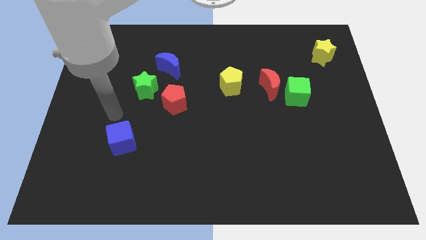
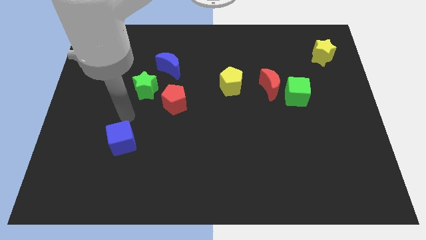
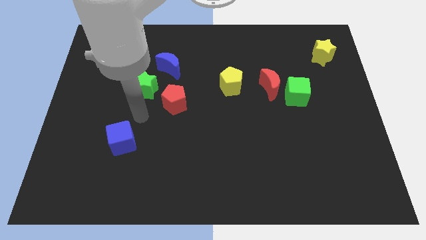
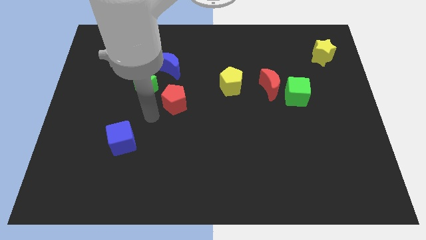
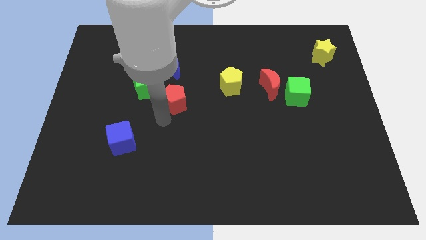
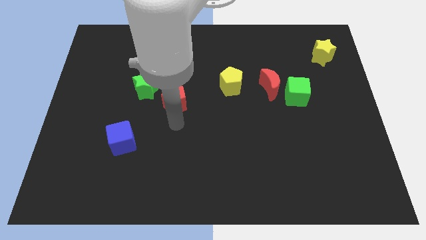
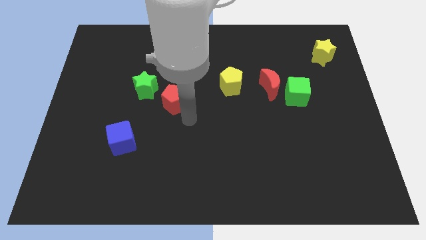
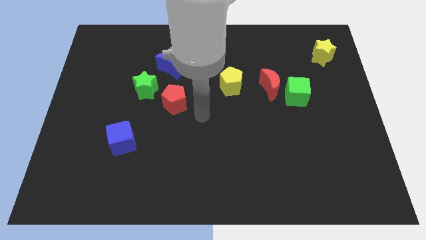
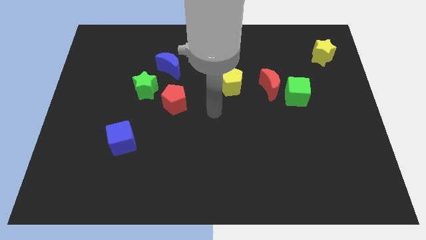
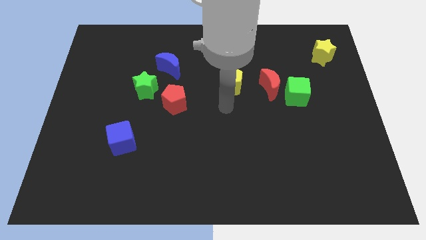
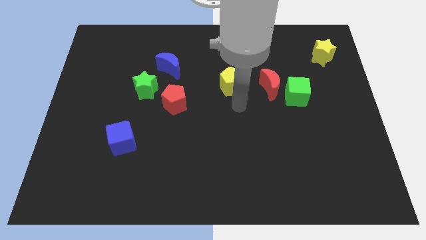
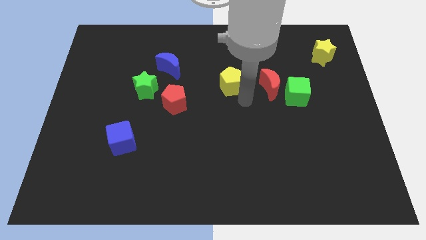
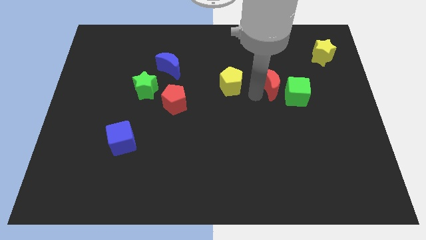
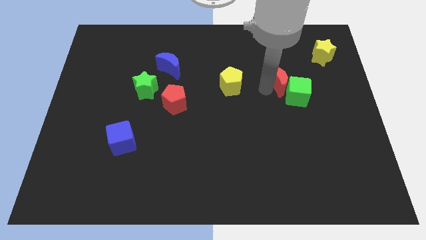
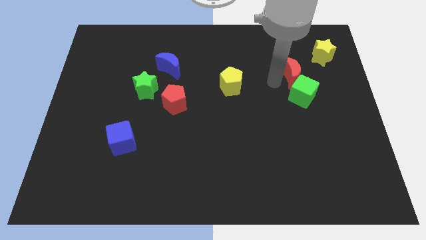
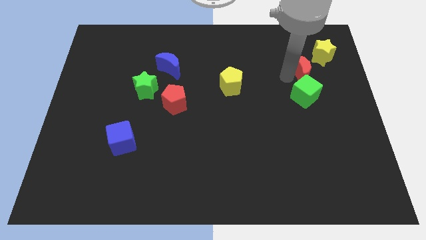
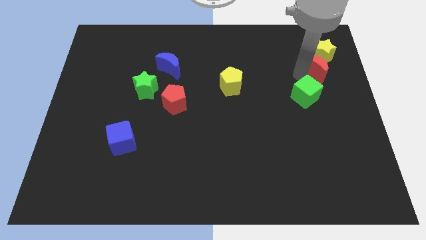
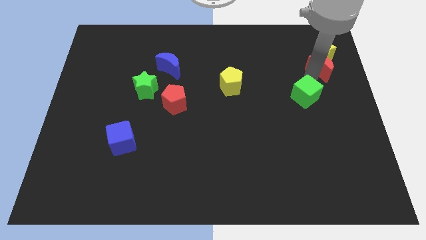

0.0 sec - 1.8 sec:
separate the green cube from the red moon

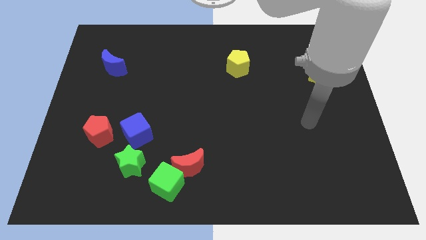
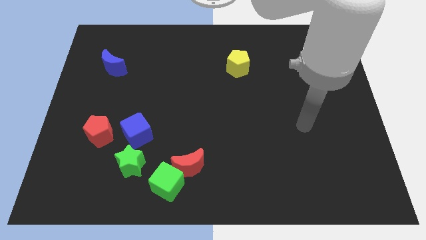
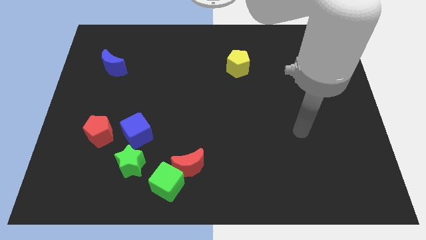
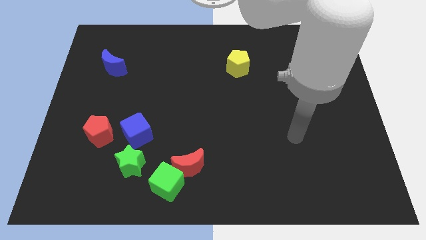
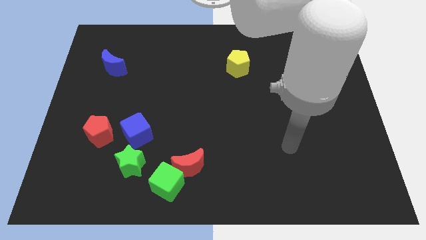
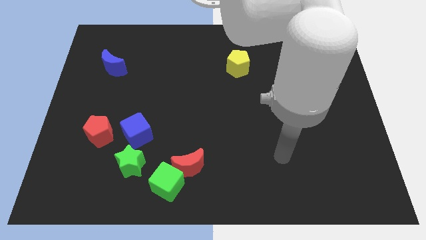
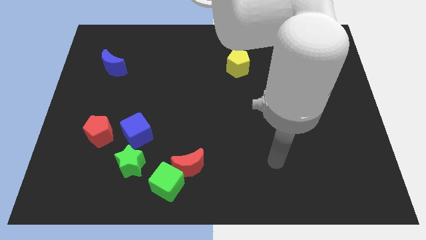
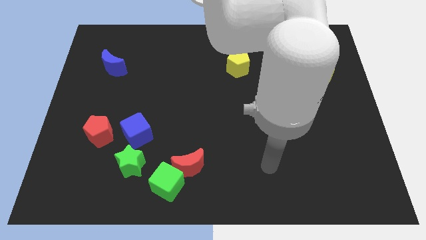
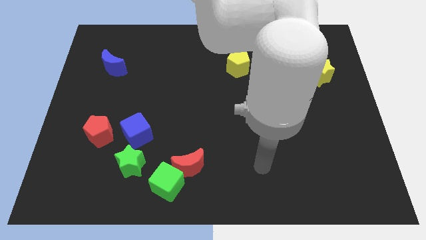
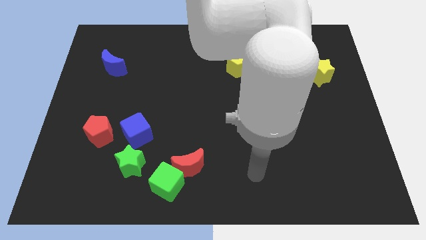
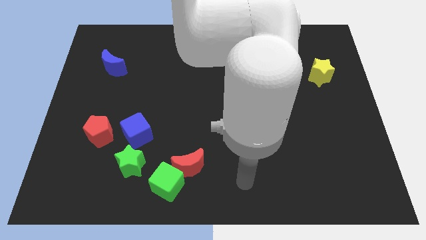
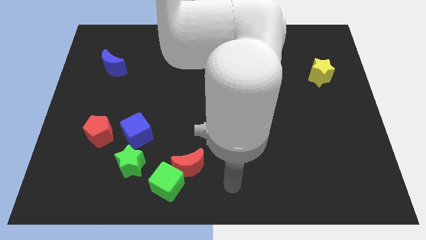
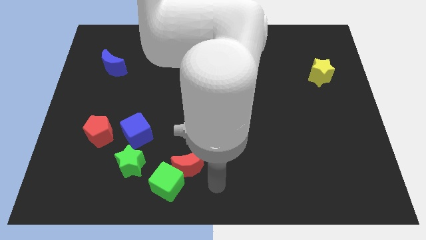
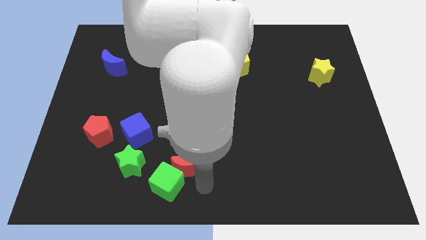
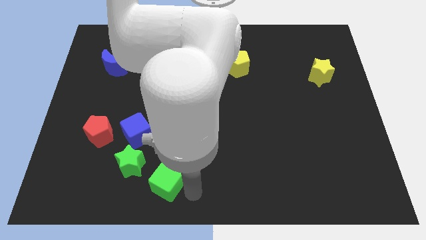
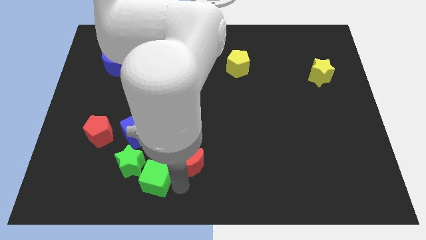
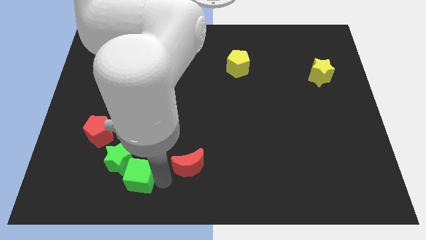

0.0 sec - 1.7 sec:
separate the red moon from the green cube

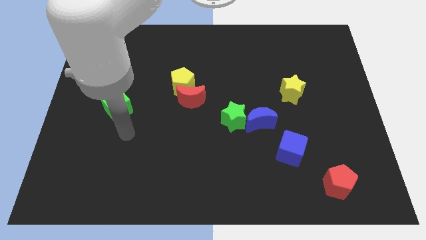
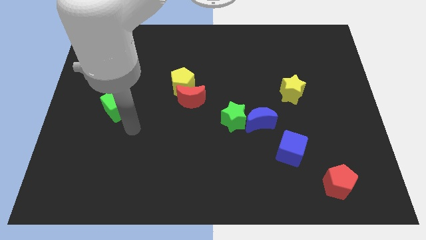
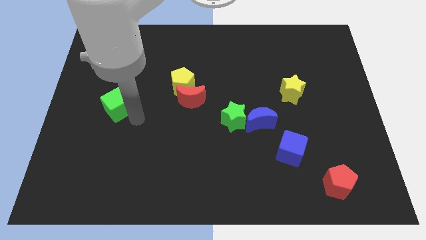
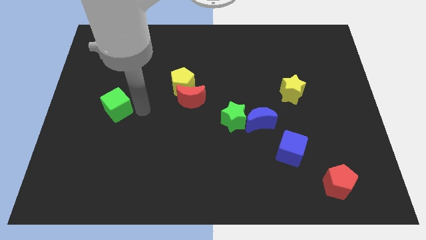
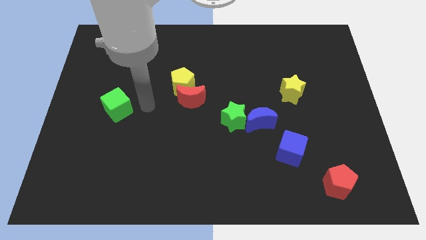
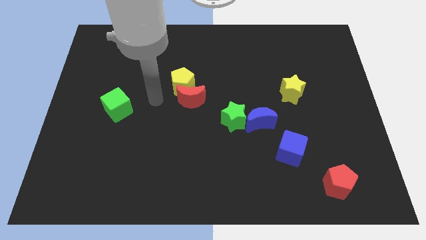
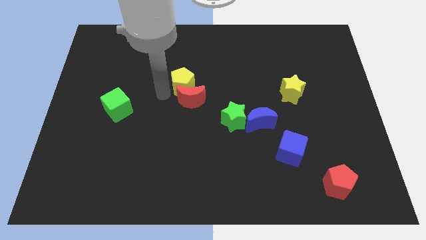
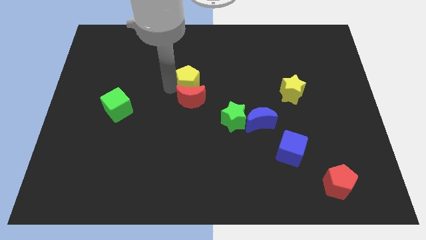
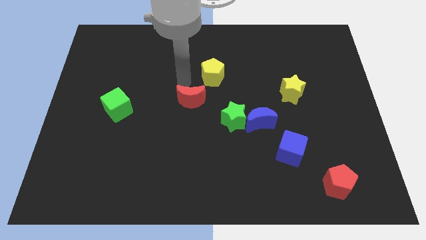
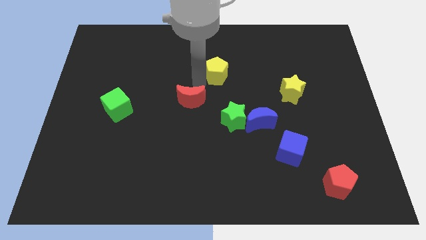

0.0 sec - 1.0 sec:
pull the red moon apart from the yellow pentagon

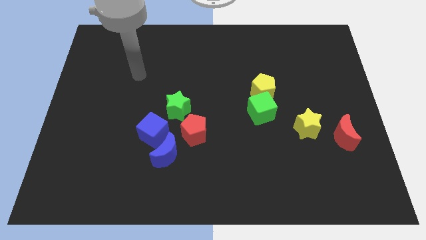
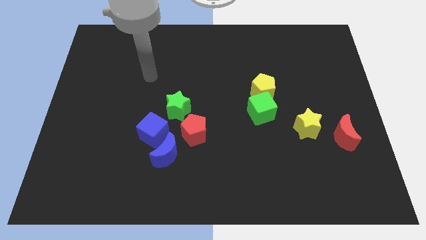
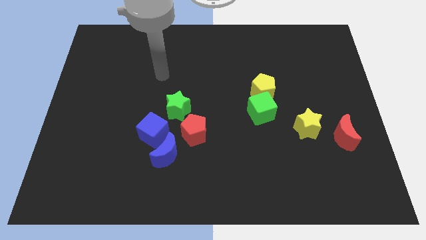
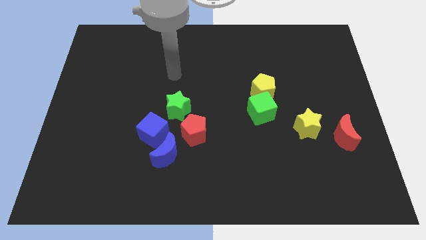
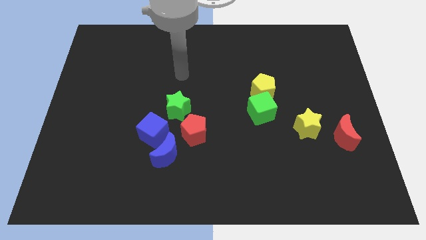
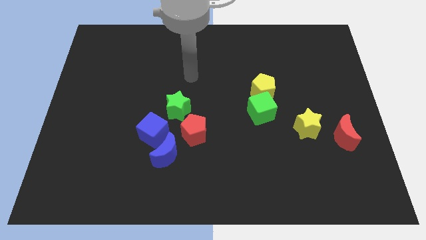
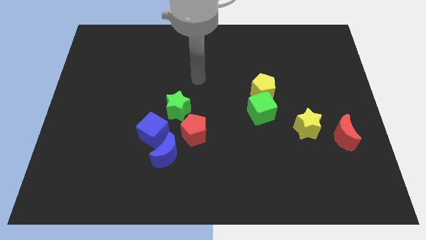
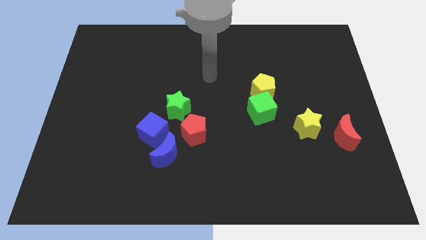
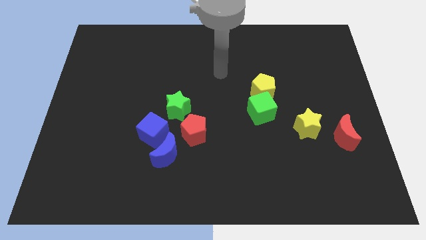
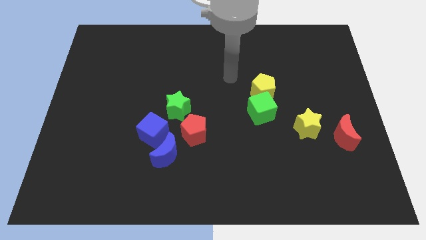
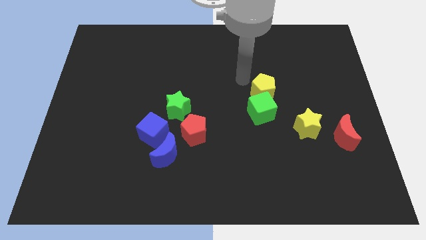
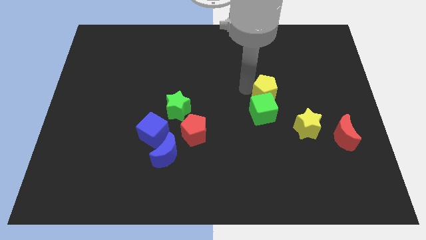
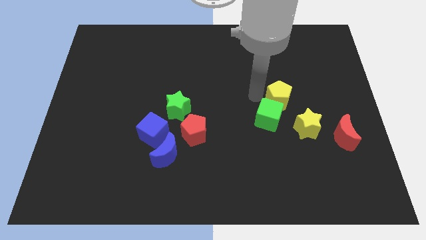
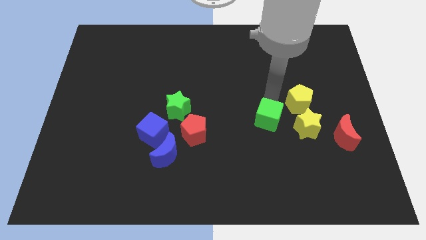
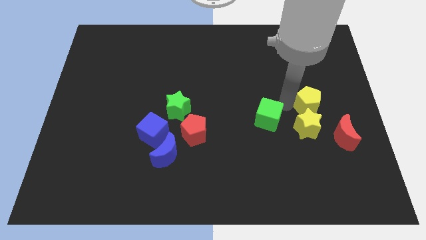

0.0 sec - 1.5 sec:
pull the green cube apart from the yellow pentagon

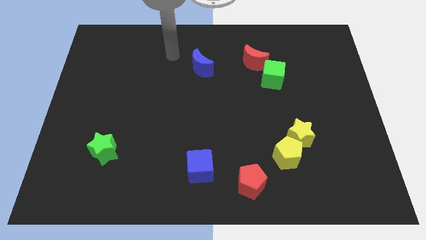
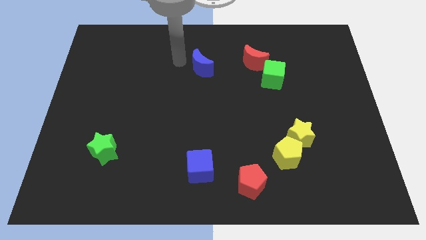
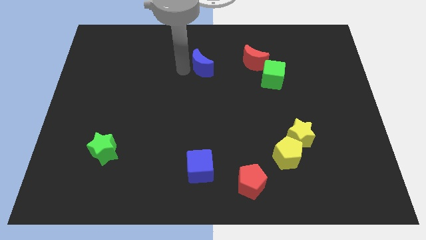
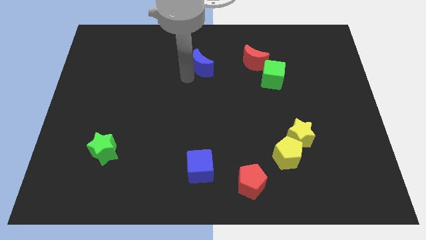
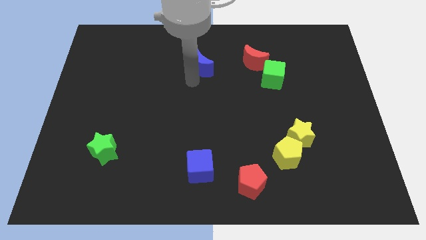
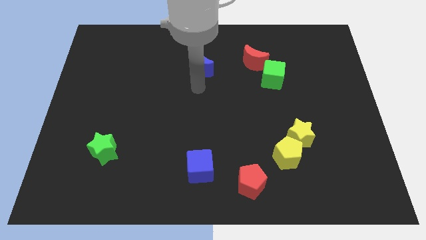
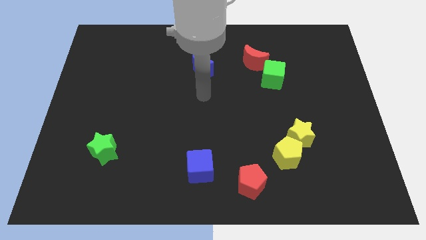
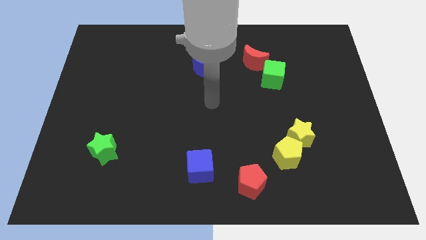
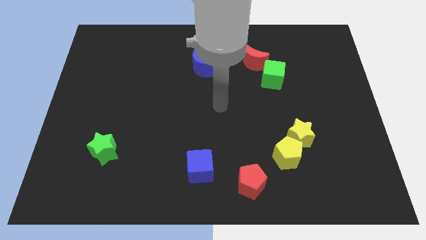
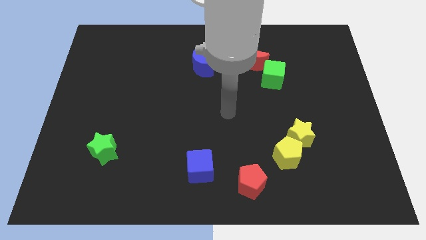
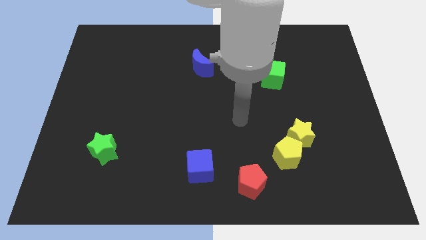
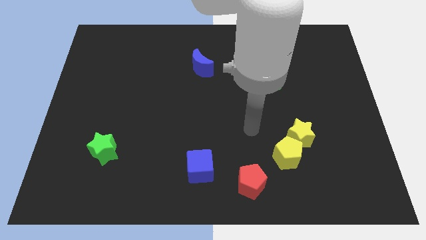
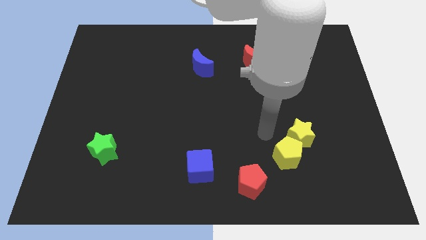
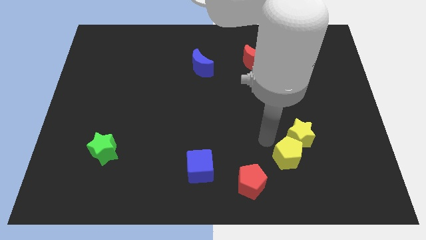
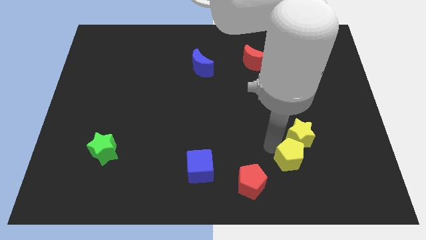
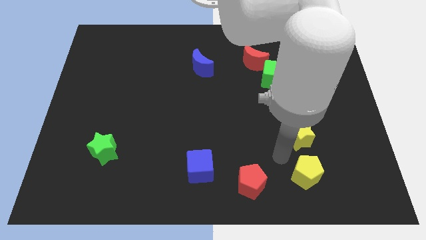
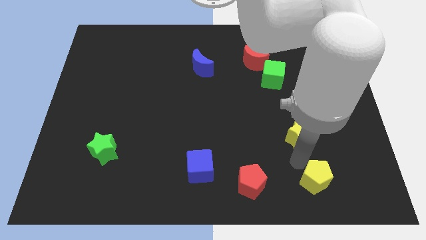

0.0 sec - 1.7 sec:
move the yellow star away from the yellow pentagon

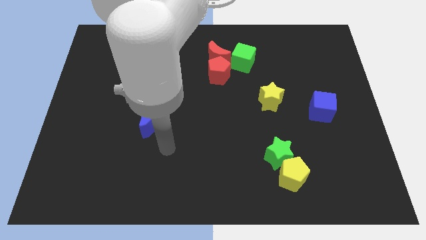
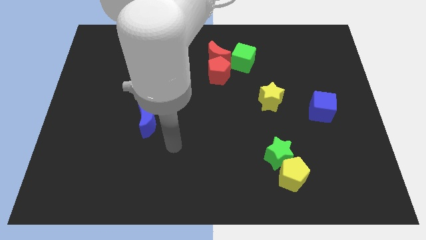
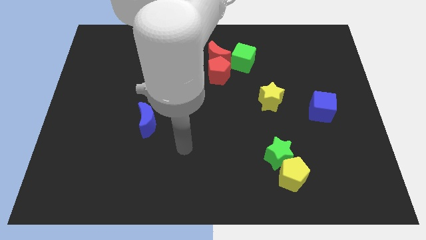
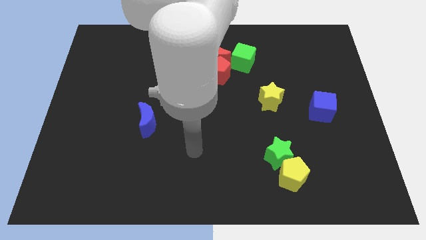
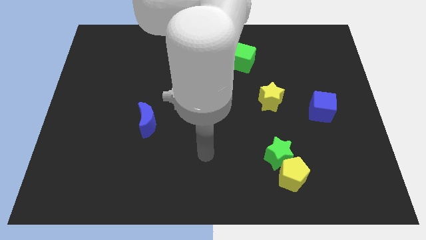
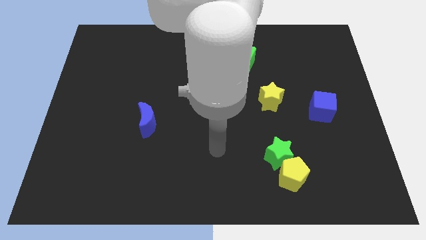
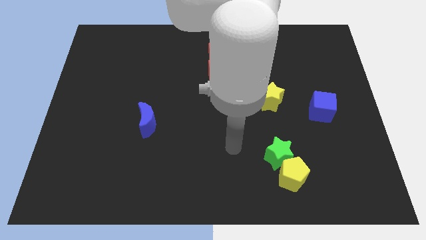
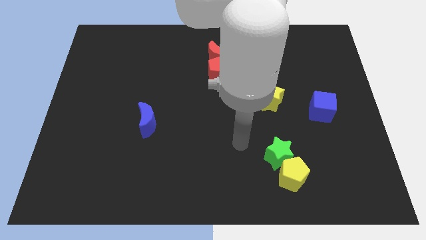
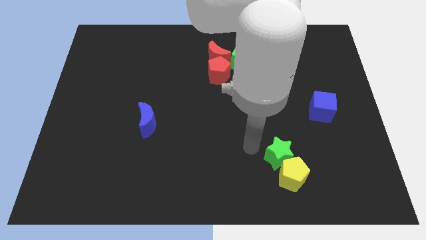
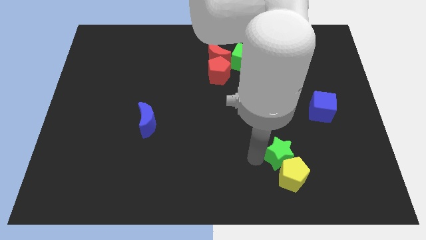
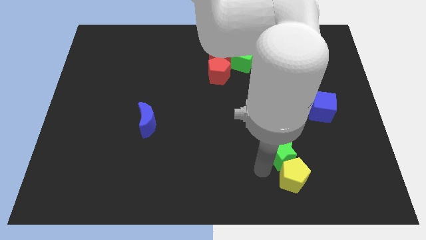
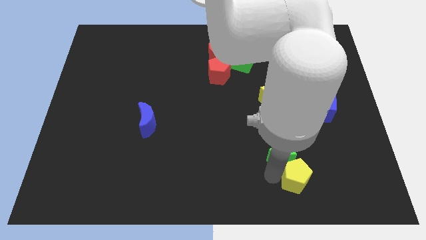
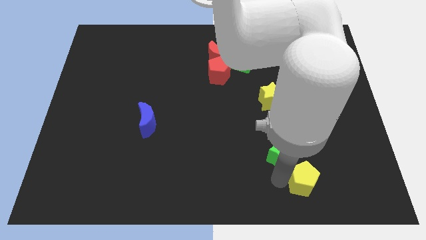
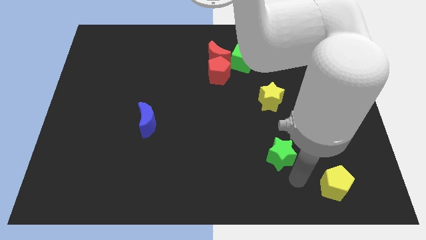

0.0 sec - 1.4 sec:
separate the green star from the yellow pentagon

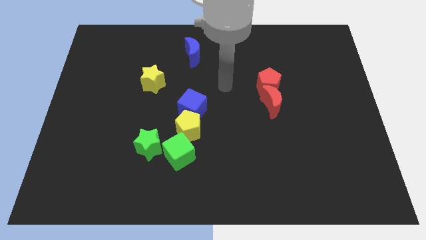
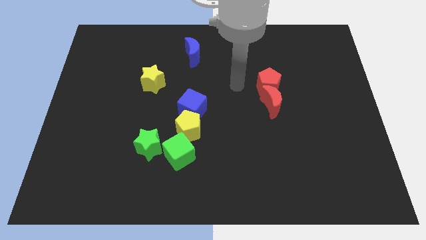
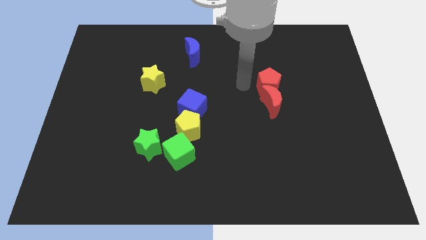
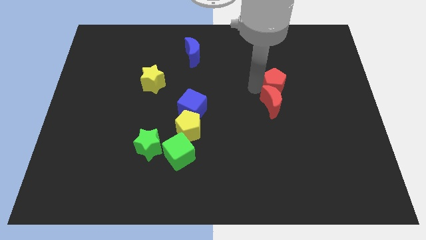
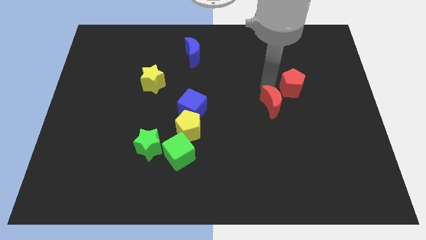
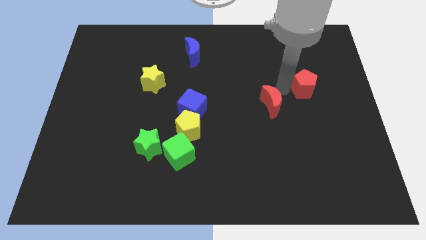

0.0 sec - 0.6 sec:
separate the red moon from the red pentagon
